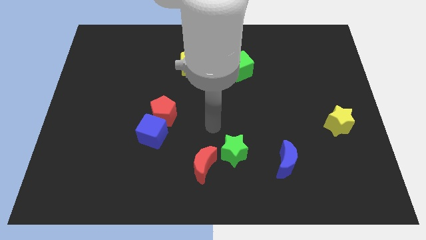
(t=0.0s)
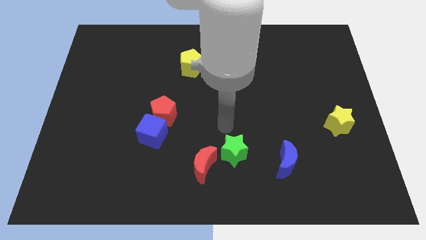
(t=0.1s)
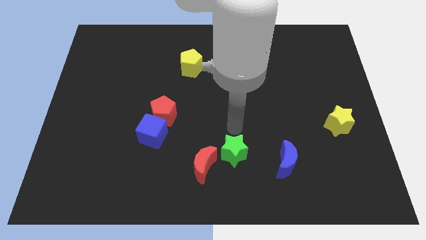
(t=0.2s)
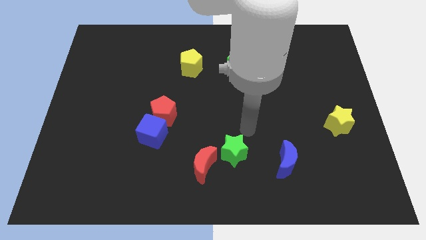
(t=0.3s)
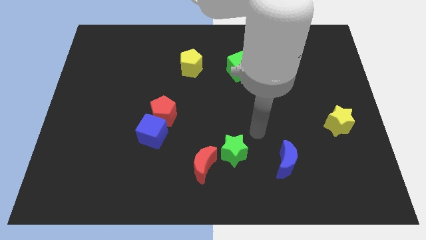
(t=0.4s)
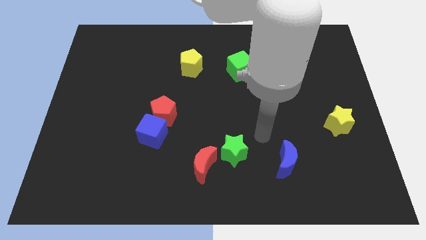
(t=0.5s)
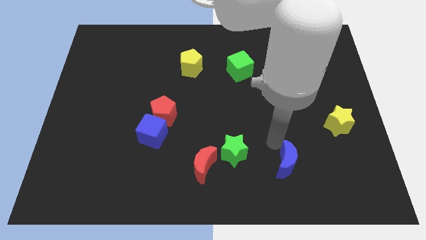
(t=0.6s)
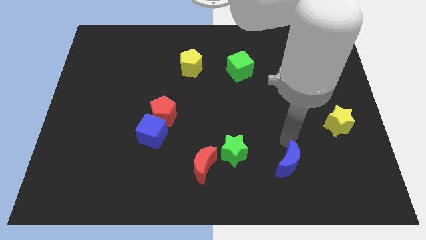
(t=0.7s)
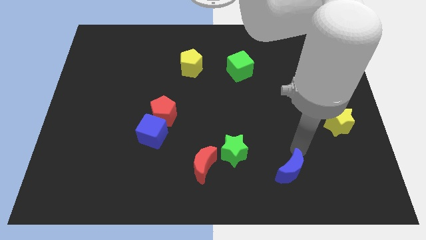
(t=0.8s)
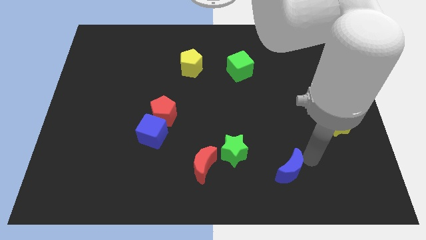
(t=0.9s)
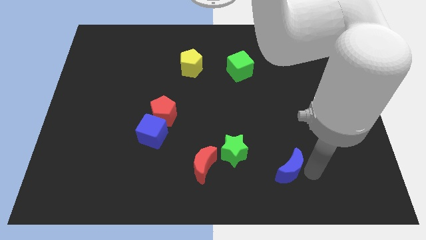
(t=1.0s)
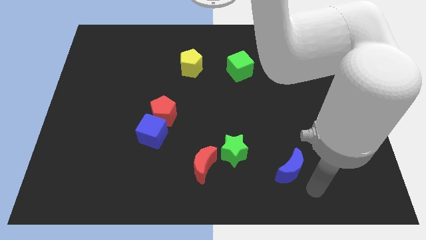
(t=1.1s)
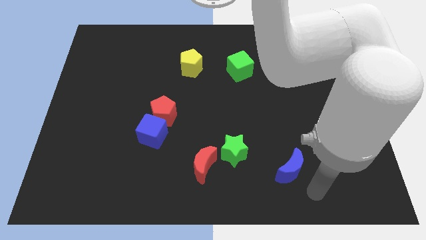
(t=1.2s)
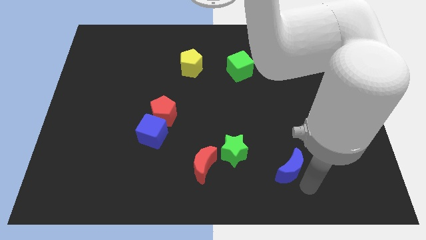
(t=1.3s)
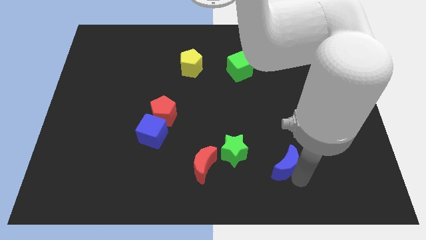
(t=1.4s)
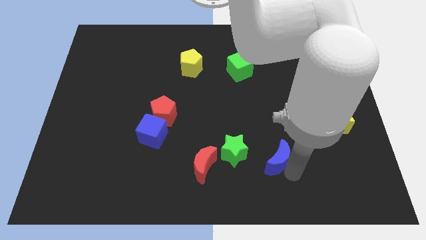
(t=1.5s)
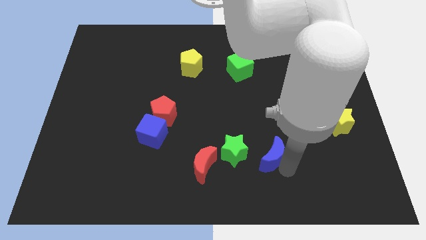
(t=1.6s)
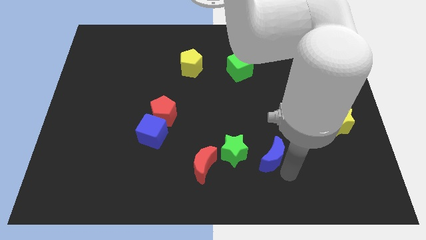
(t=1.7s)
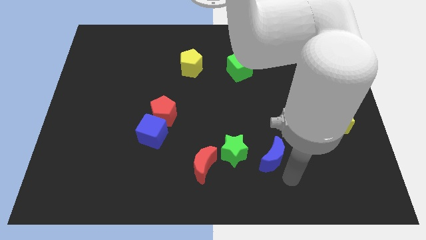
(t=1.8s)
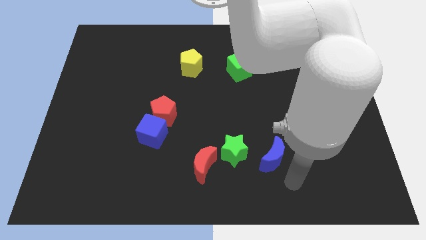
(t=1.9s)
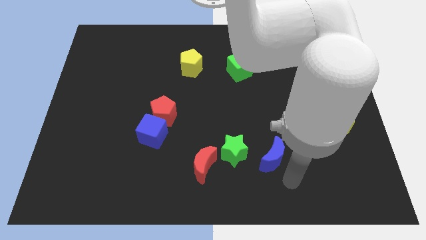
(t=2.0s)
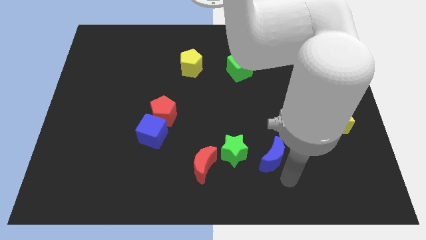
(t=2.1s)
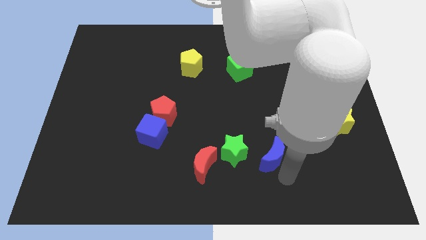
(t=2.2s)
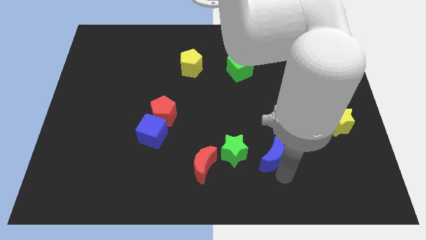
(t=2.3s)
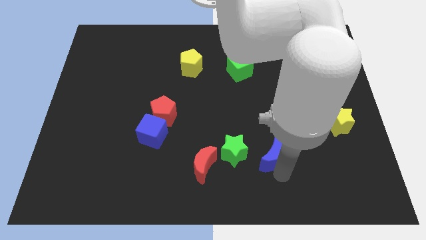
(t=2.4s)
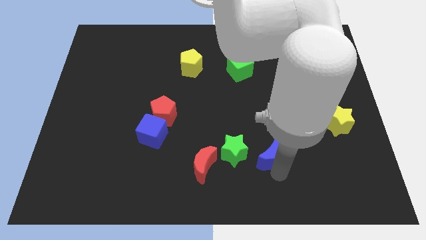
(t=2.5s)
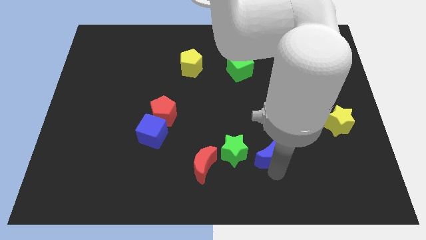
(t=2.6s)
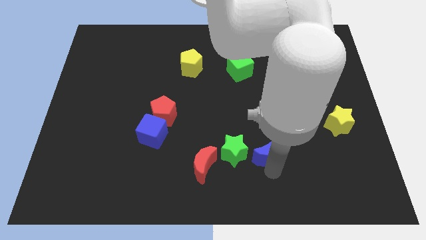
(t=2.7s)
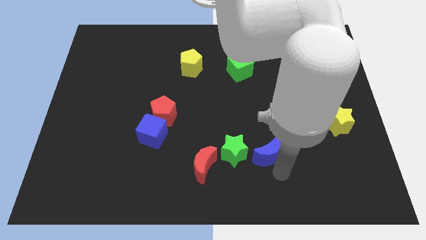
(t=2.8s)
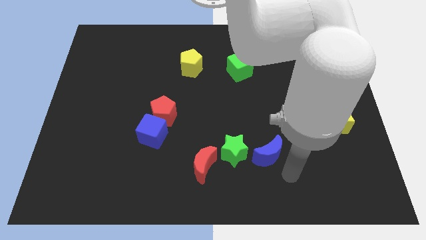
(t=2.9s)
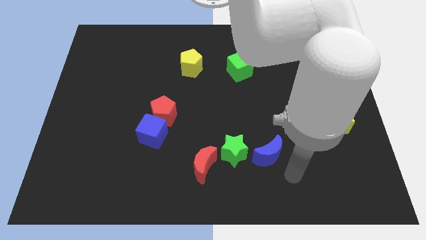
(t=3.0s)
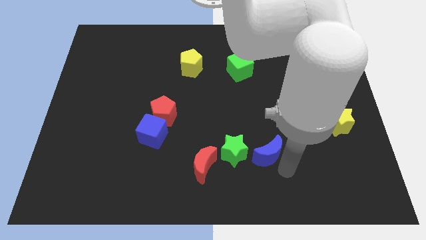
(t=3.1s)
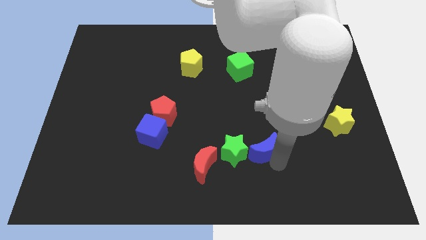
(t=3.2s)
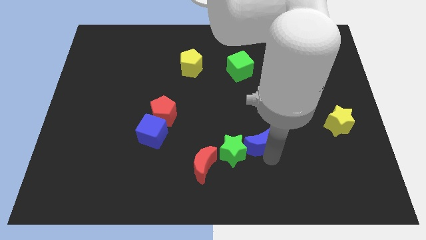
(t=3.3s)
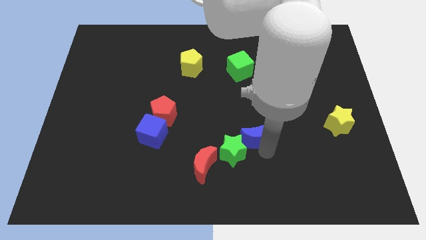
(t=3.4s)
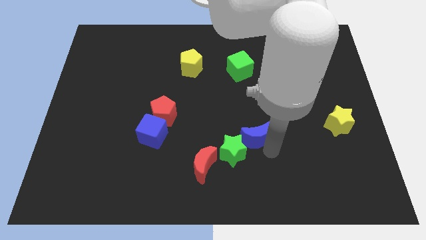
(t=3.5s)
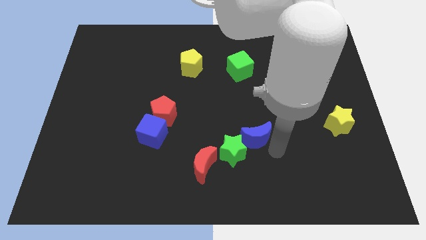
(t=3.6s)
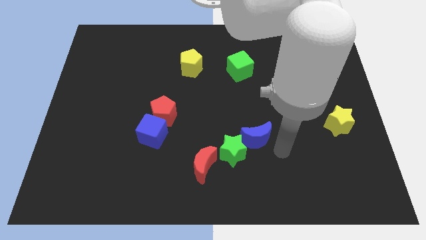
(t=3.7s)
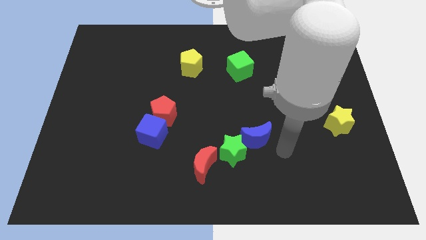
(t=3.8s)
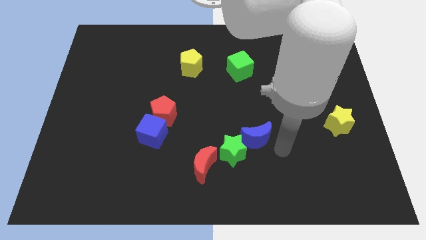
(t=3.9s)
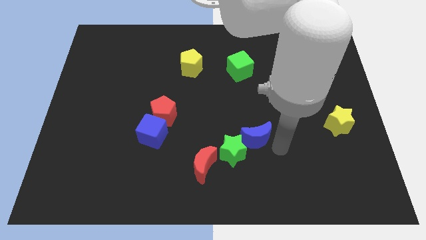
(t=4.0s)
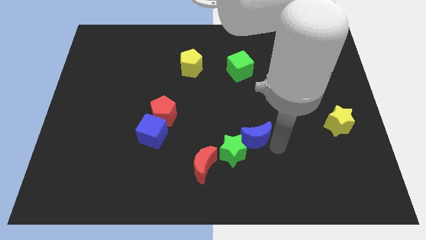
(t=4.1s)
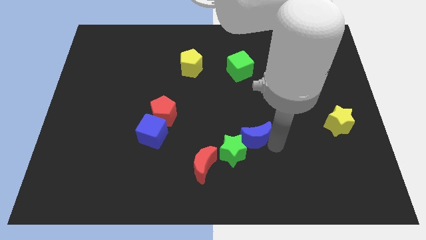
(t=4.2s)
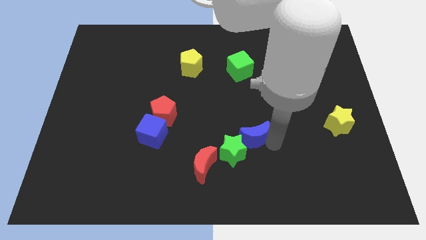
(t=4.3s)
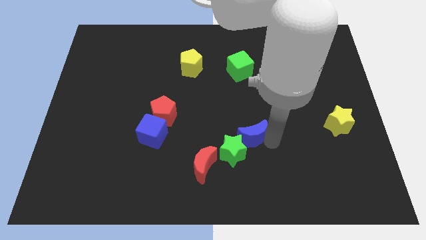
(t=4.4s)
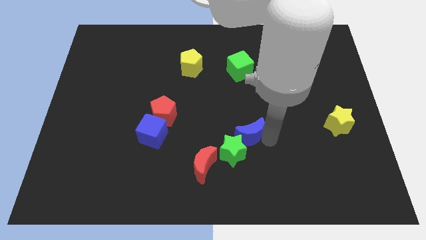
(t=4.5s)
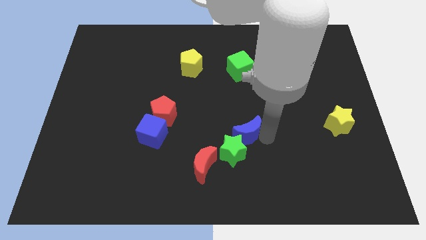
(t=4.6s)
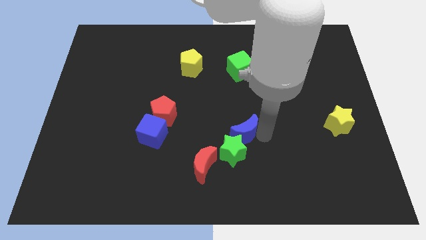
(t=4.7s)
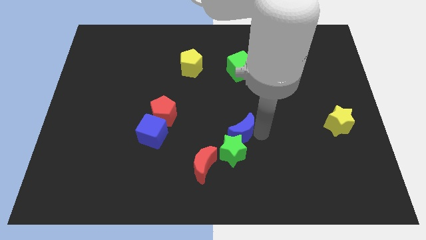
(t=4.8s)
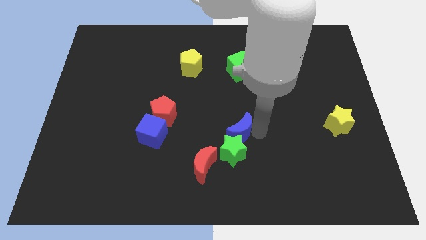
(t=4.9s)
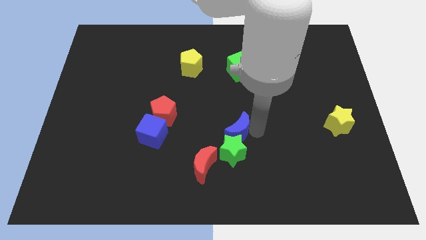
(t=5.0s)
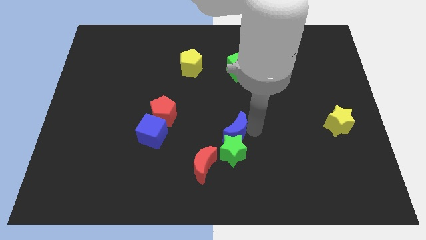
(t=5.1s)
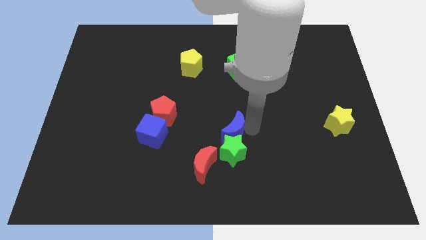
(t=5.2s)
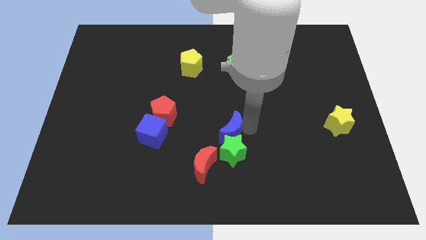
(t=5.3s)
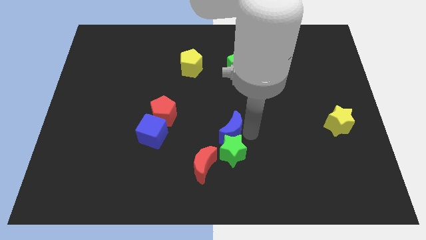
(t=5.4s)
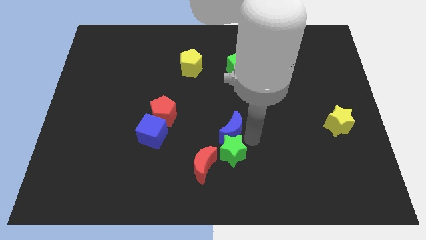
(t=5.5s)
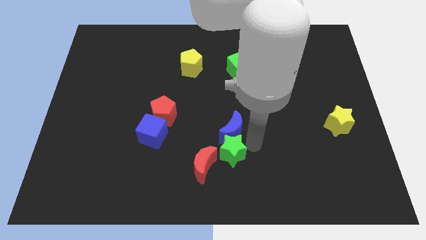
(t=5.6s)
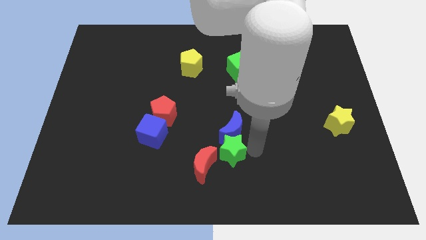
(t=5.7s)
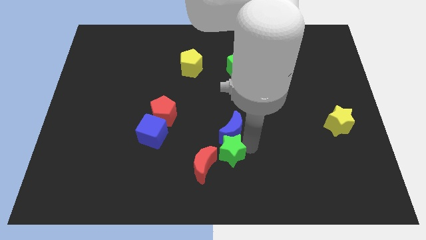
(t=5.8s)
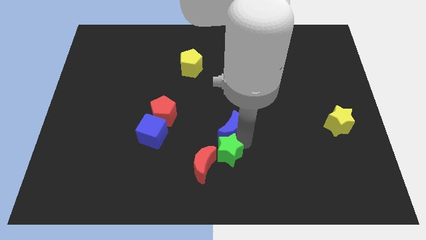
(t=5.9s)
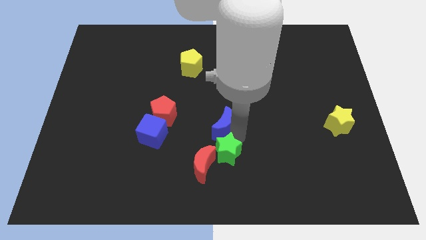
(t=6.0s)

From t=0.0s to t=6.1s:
push the blue moon right of the red pentagon

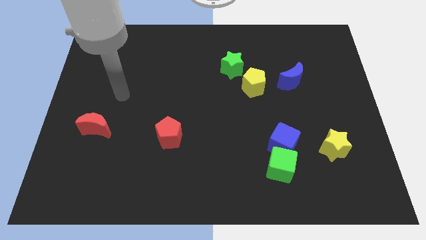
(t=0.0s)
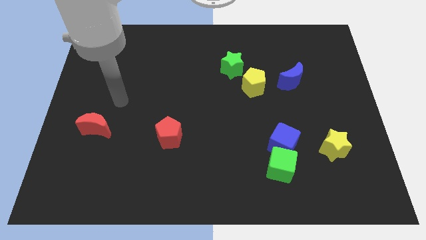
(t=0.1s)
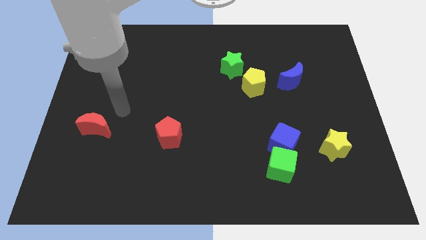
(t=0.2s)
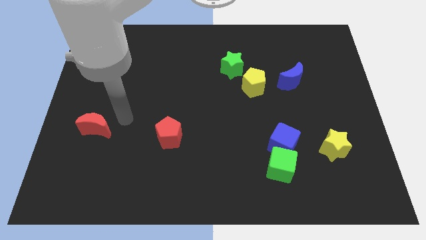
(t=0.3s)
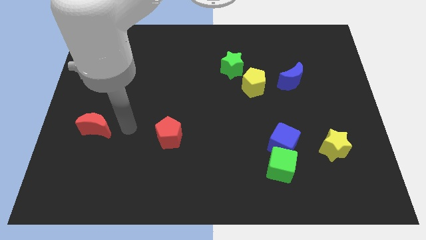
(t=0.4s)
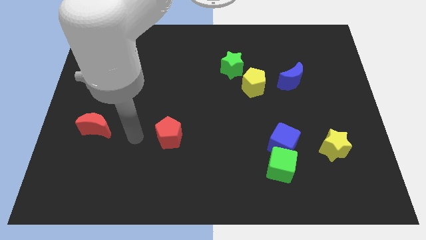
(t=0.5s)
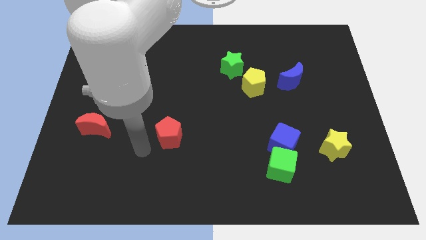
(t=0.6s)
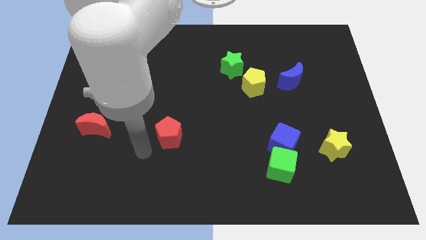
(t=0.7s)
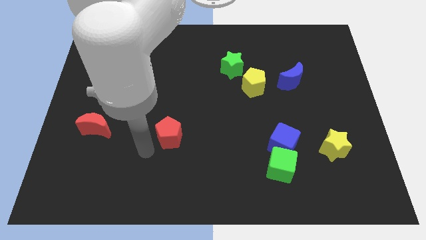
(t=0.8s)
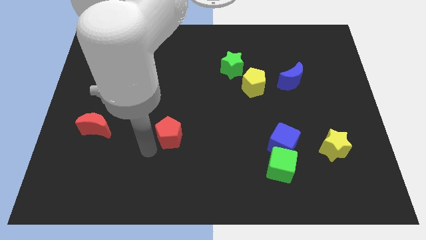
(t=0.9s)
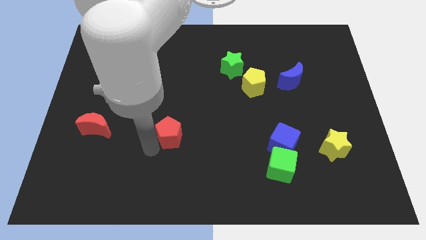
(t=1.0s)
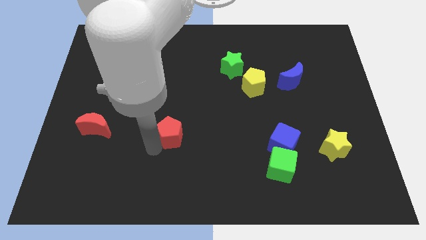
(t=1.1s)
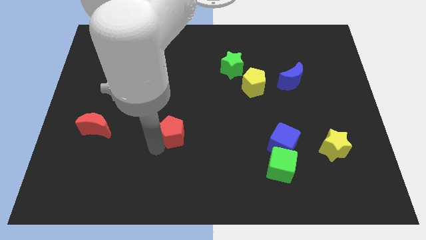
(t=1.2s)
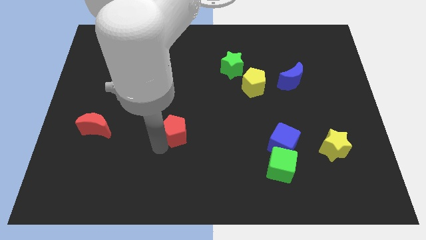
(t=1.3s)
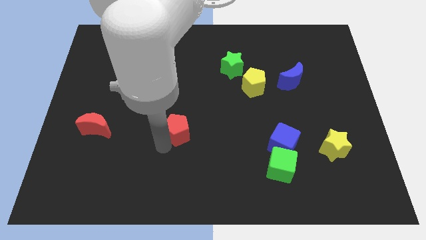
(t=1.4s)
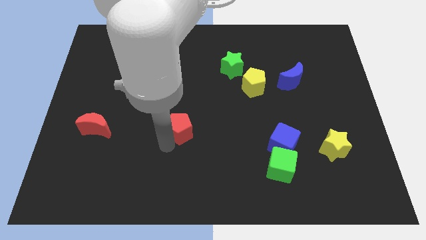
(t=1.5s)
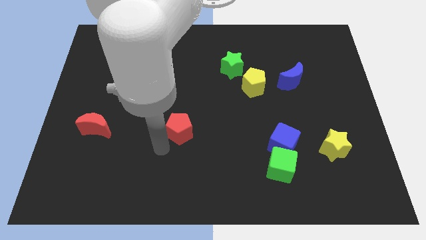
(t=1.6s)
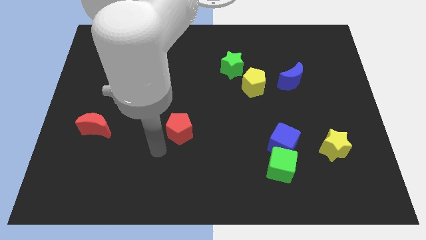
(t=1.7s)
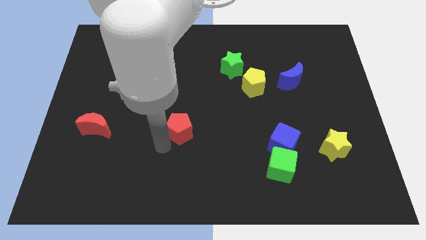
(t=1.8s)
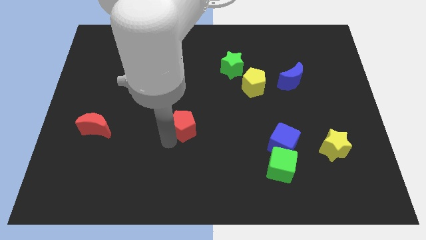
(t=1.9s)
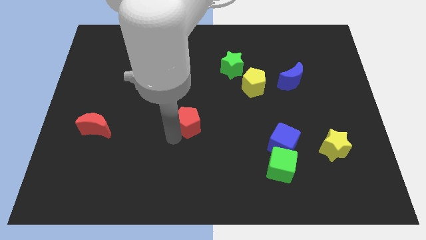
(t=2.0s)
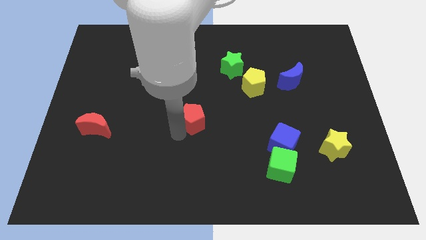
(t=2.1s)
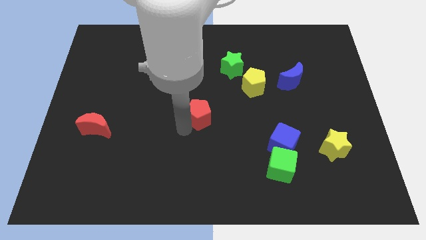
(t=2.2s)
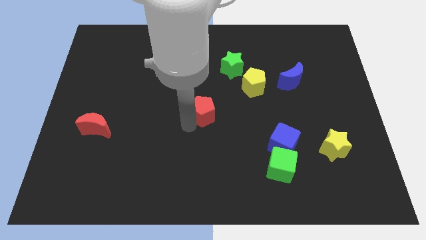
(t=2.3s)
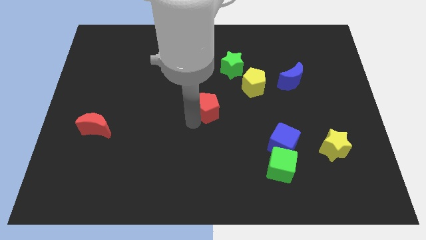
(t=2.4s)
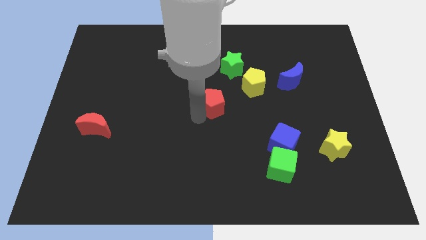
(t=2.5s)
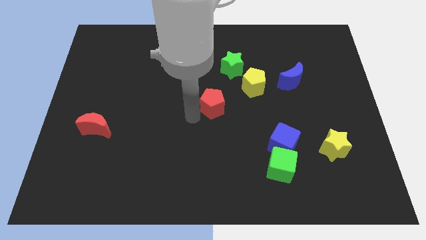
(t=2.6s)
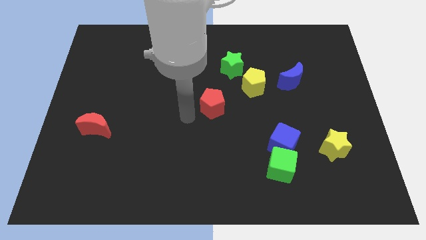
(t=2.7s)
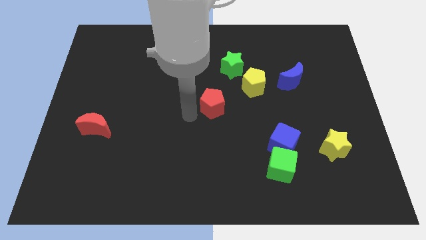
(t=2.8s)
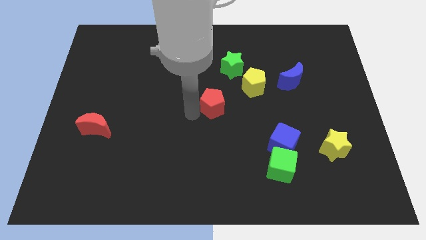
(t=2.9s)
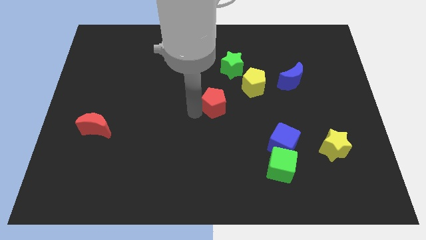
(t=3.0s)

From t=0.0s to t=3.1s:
push the red pentagon to the bottom side of the green star
